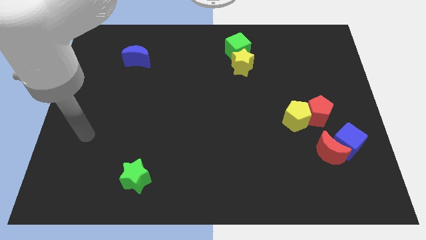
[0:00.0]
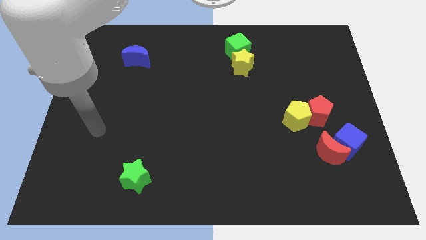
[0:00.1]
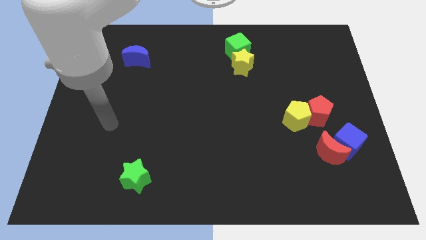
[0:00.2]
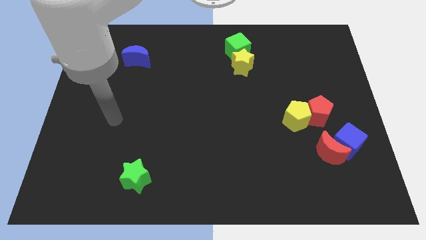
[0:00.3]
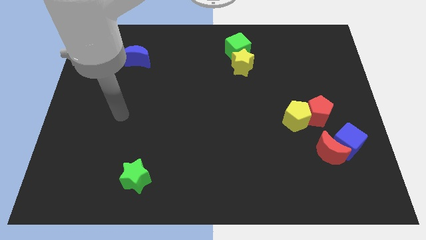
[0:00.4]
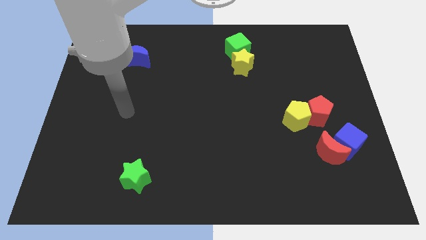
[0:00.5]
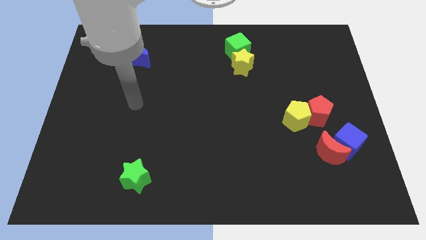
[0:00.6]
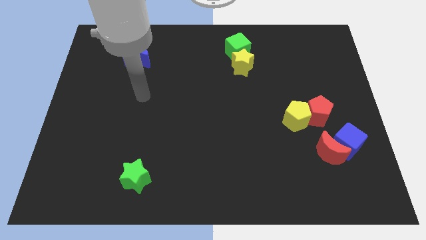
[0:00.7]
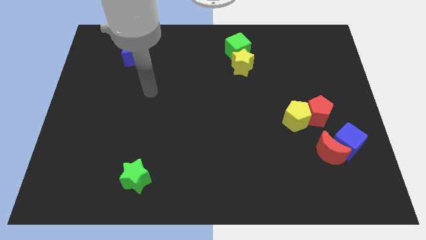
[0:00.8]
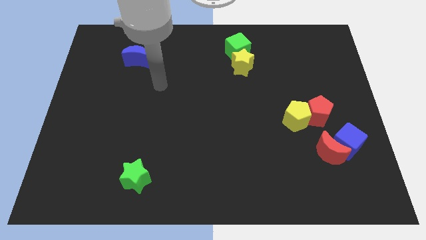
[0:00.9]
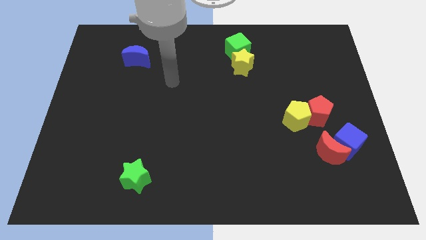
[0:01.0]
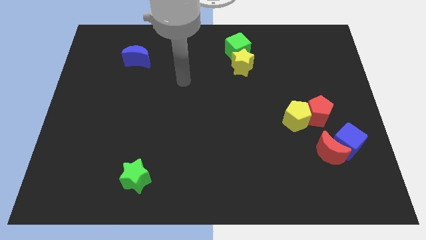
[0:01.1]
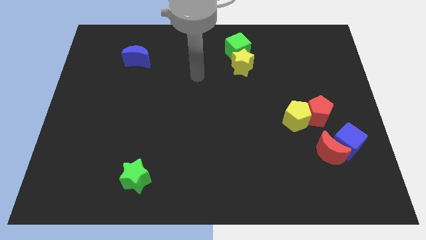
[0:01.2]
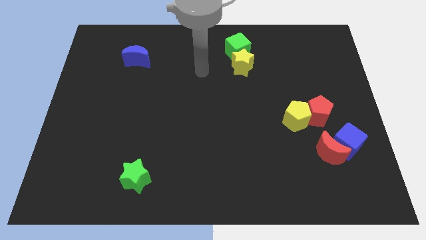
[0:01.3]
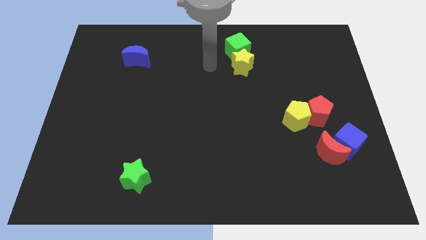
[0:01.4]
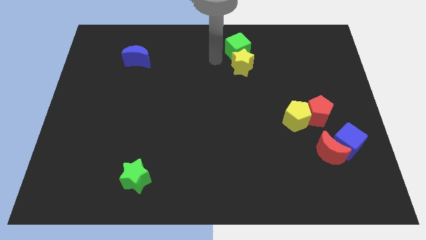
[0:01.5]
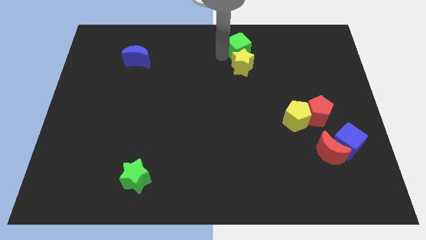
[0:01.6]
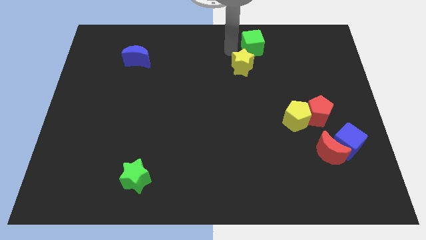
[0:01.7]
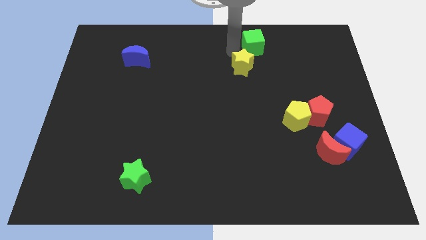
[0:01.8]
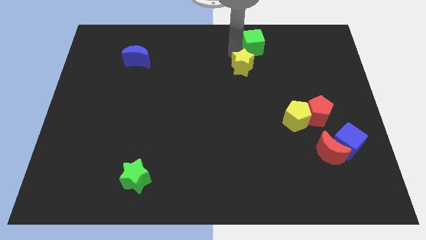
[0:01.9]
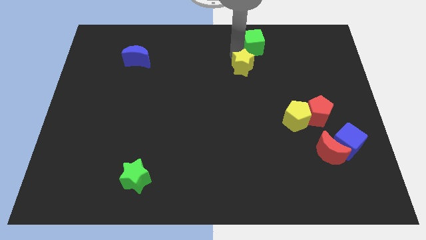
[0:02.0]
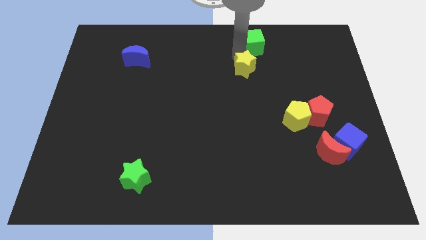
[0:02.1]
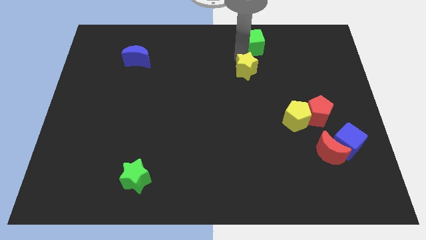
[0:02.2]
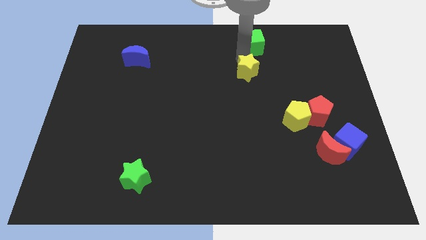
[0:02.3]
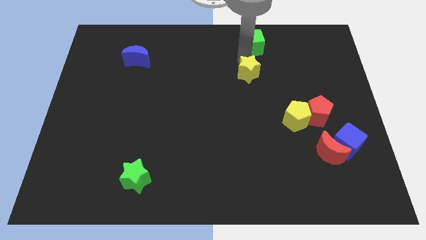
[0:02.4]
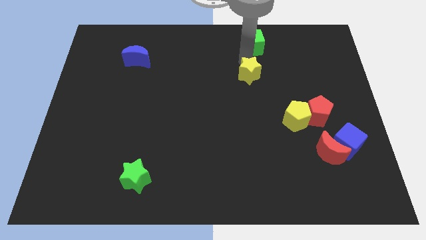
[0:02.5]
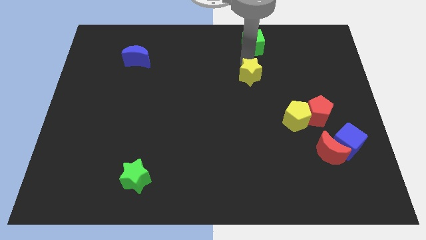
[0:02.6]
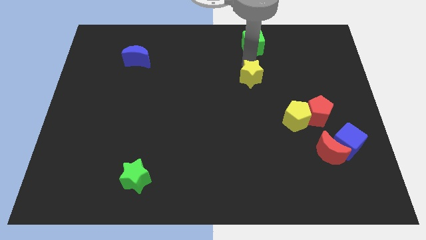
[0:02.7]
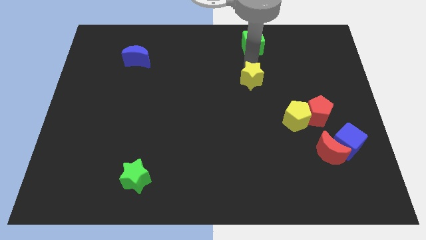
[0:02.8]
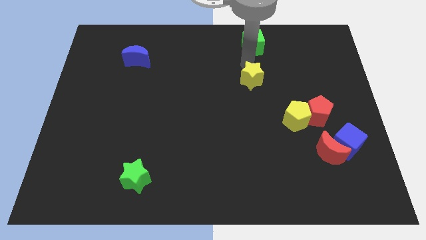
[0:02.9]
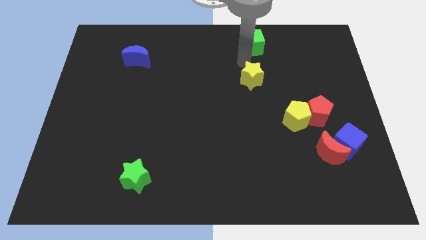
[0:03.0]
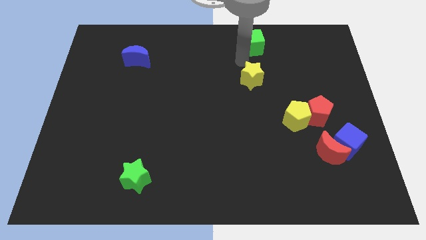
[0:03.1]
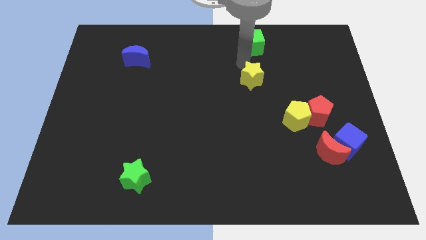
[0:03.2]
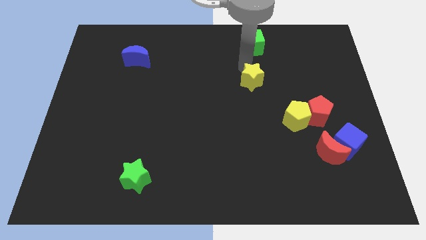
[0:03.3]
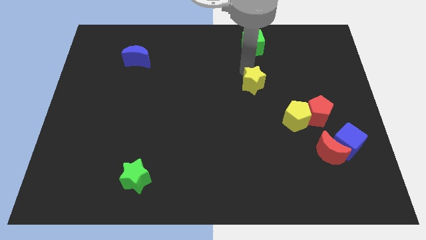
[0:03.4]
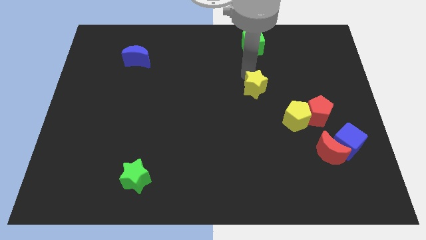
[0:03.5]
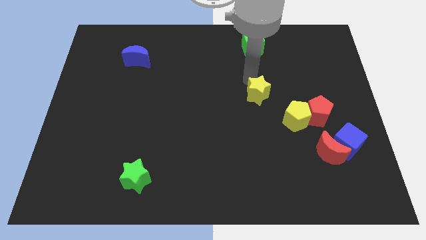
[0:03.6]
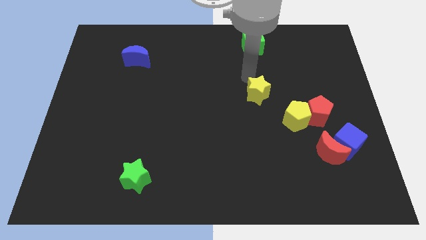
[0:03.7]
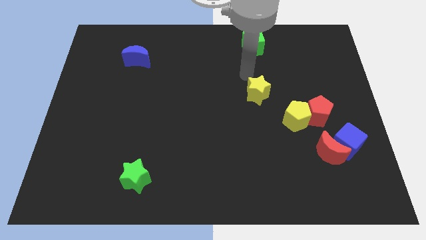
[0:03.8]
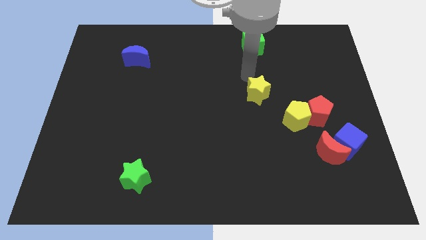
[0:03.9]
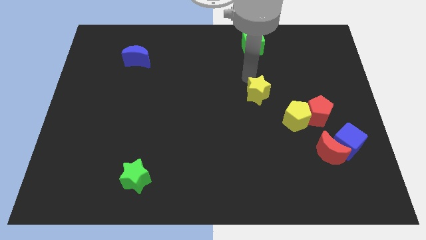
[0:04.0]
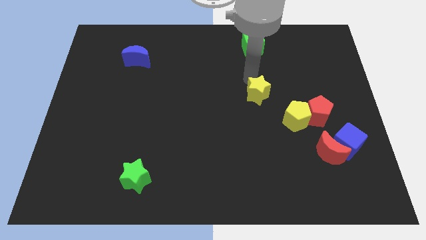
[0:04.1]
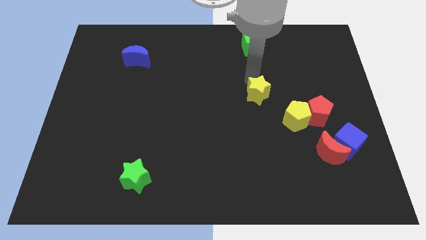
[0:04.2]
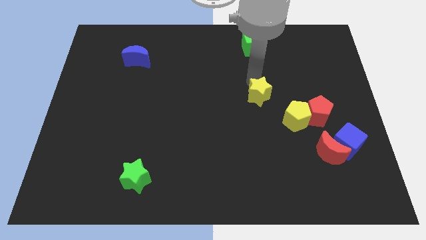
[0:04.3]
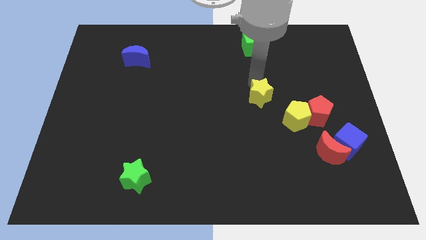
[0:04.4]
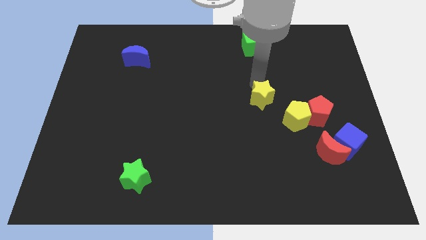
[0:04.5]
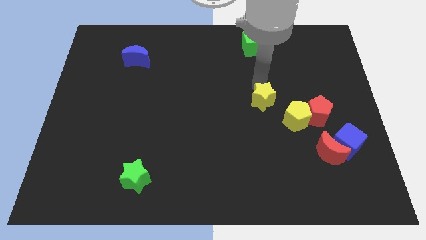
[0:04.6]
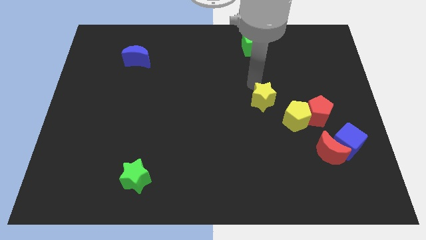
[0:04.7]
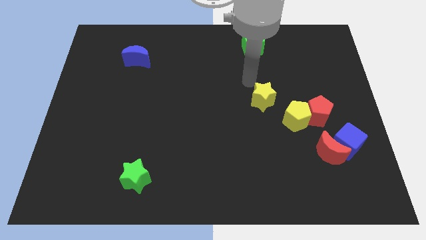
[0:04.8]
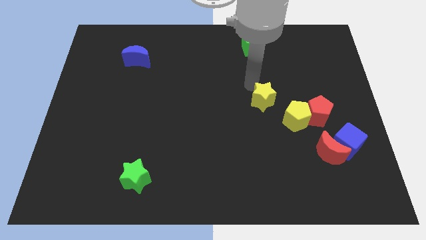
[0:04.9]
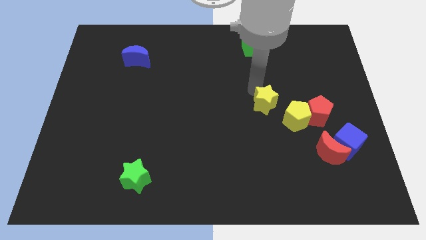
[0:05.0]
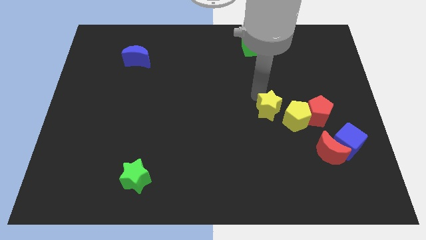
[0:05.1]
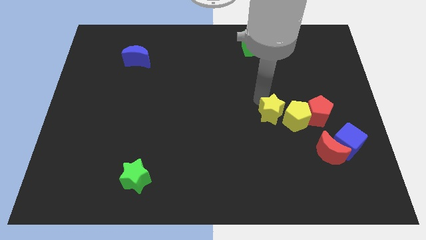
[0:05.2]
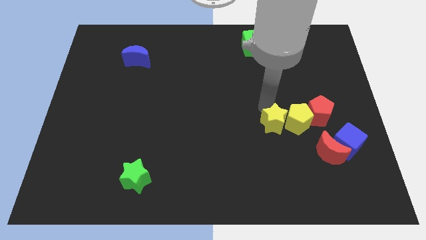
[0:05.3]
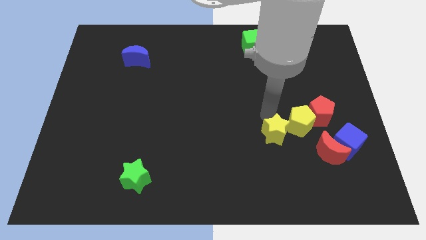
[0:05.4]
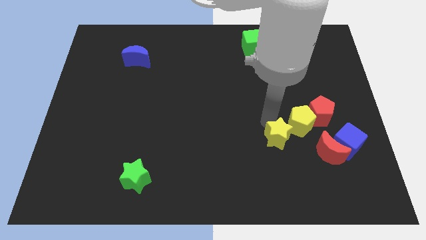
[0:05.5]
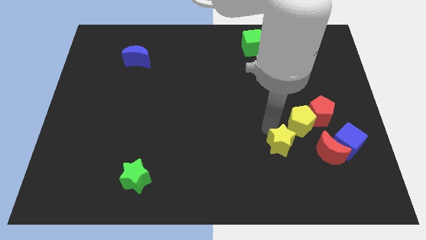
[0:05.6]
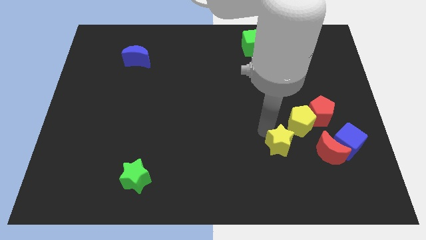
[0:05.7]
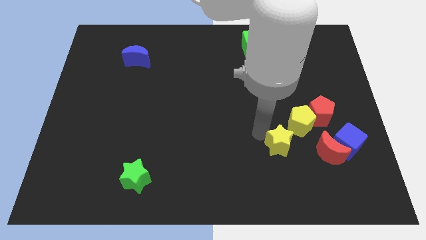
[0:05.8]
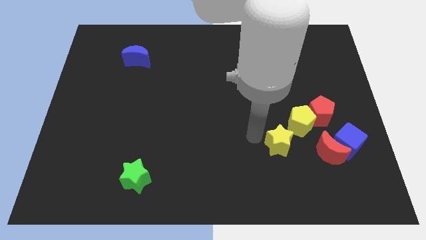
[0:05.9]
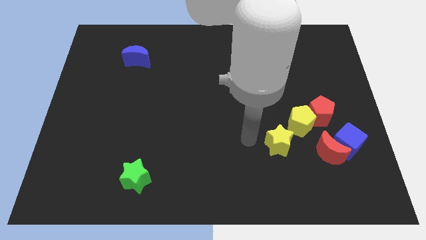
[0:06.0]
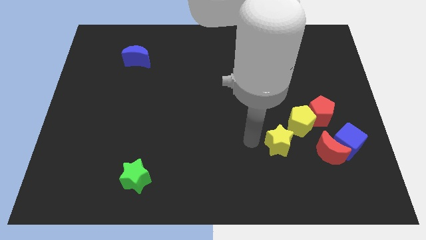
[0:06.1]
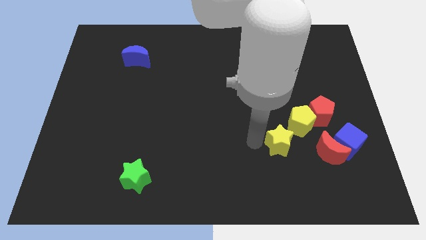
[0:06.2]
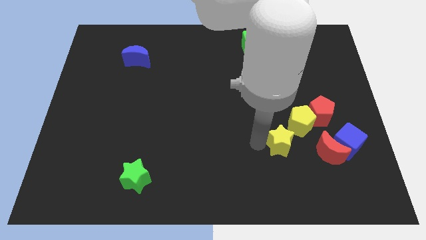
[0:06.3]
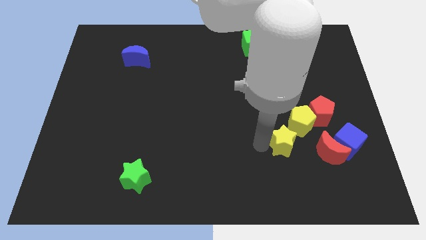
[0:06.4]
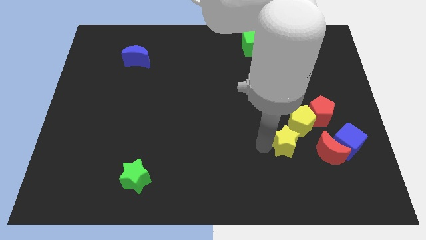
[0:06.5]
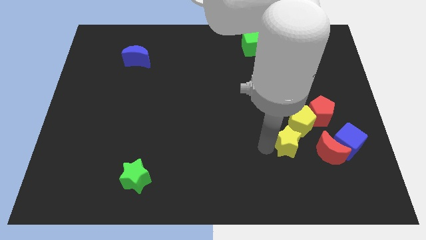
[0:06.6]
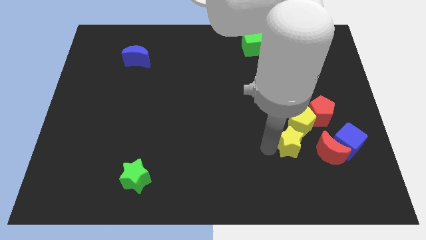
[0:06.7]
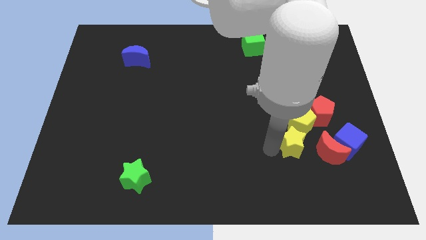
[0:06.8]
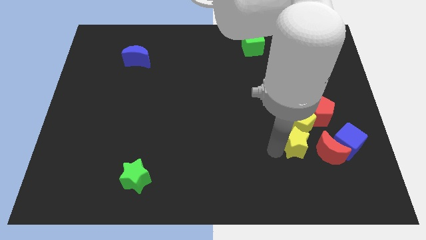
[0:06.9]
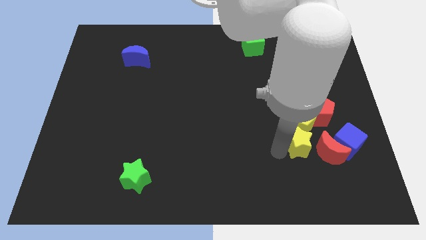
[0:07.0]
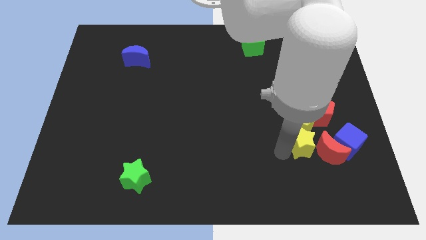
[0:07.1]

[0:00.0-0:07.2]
push the yellow star next to the red moon
